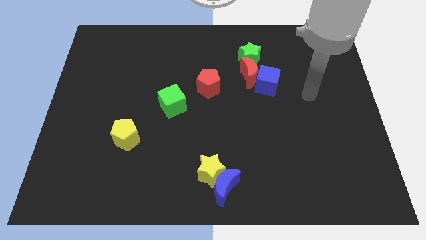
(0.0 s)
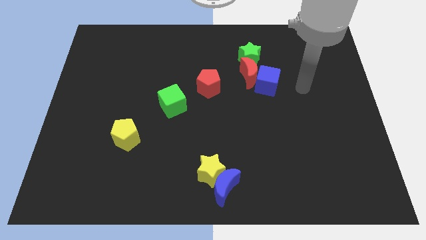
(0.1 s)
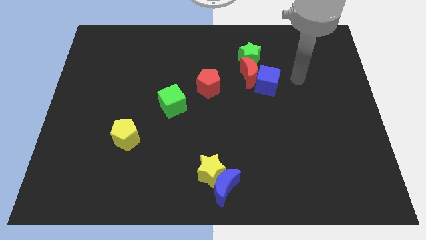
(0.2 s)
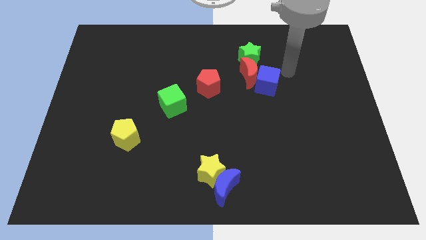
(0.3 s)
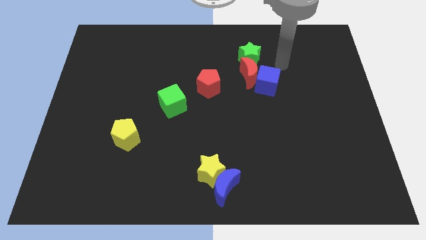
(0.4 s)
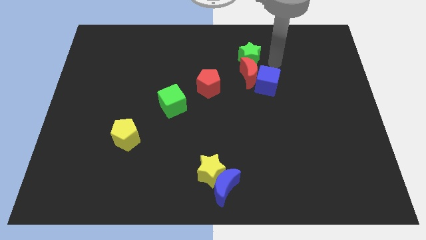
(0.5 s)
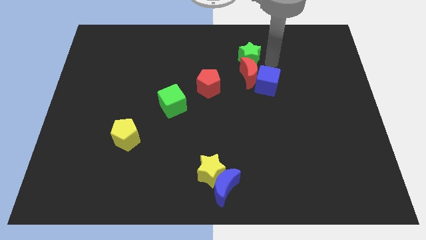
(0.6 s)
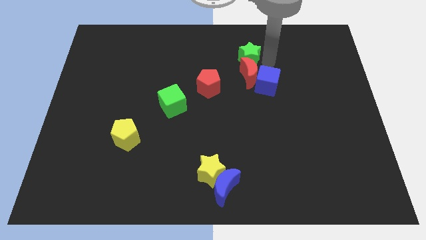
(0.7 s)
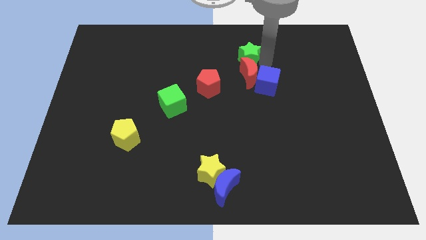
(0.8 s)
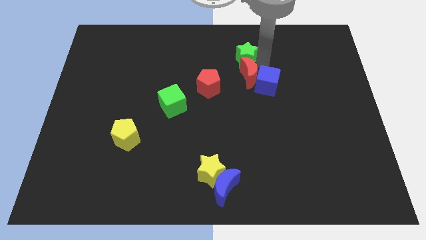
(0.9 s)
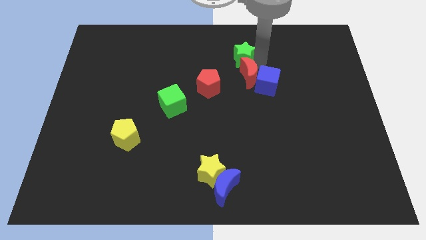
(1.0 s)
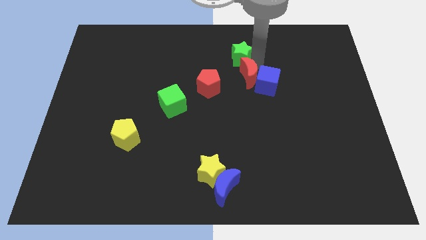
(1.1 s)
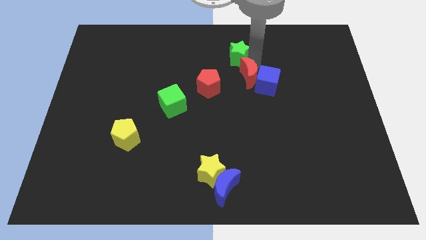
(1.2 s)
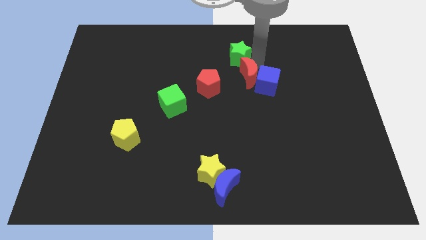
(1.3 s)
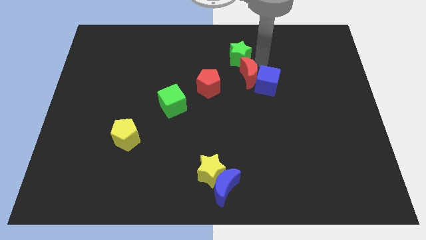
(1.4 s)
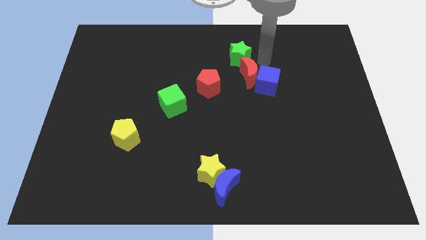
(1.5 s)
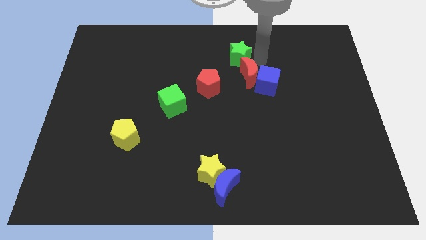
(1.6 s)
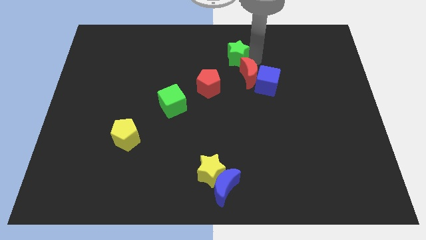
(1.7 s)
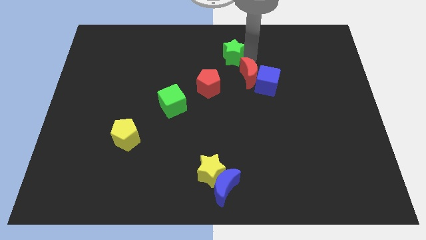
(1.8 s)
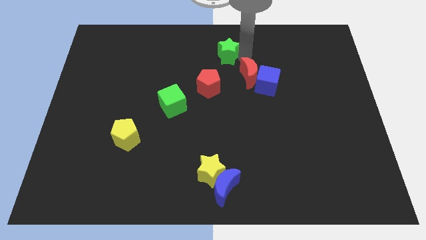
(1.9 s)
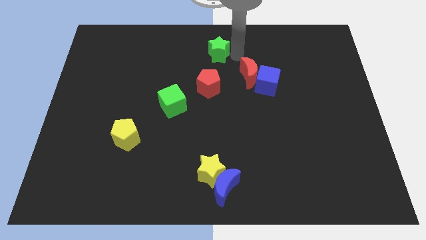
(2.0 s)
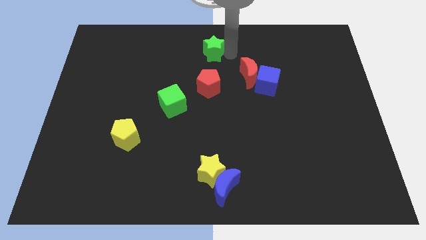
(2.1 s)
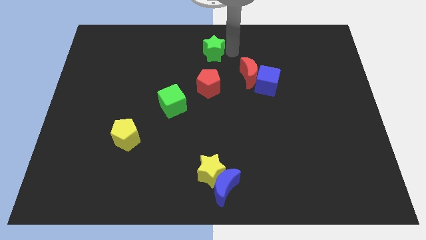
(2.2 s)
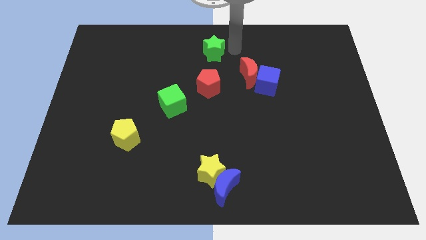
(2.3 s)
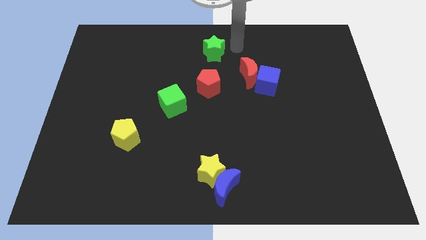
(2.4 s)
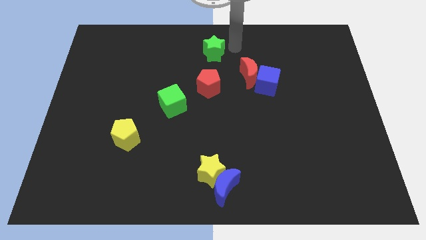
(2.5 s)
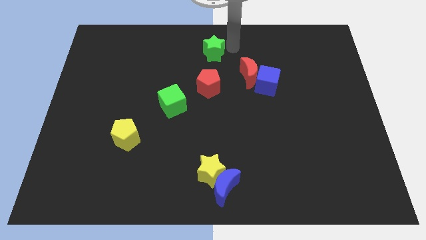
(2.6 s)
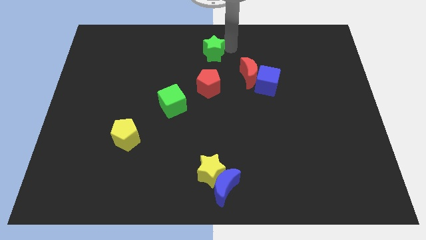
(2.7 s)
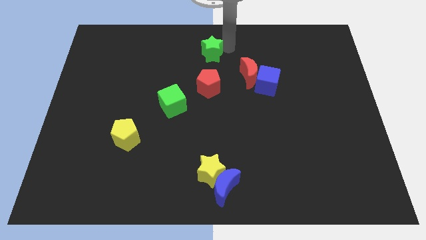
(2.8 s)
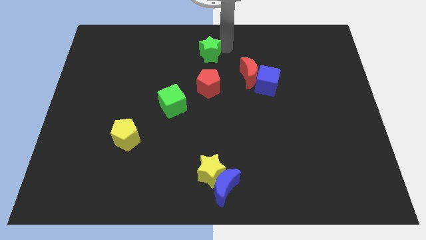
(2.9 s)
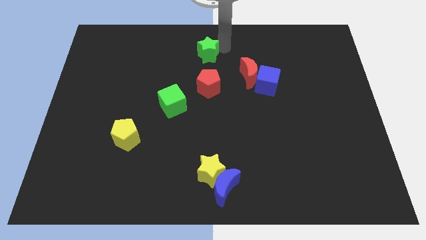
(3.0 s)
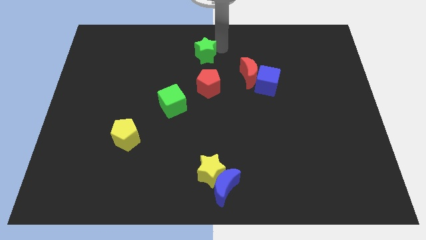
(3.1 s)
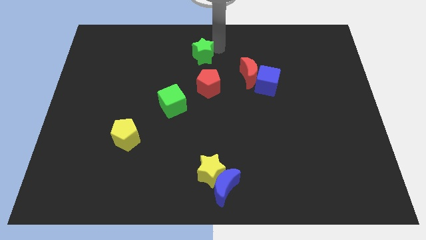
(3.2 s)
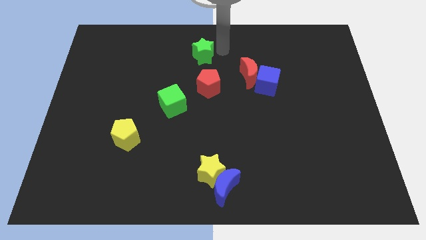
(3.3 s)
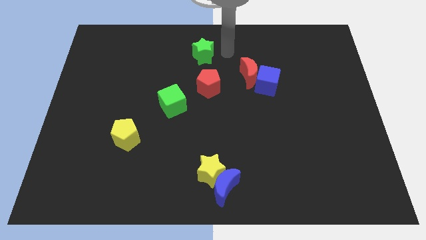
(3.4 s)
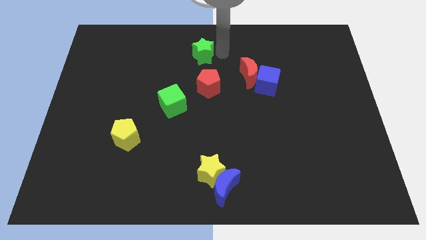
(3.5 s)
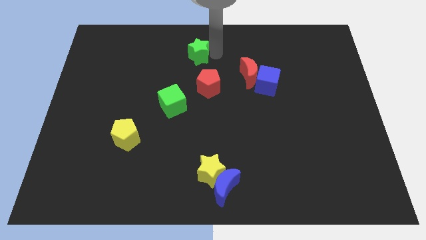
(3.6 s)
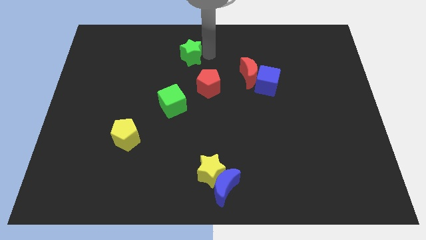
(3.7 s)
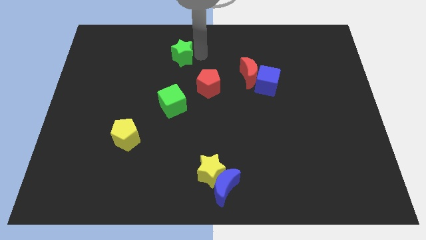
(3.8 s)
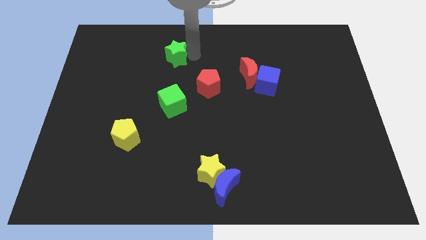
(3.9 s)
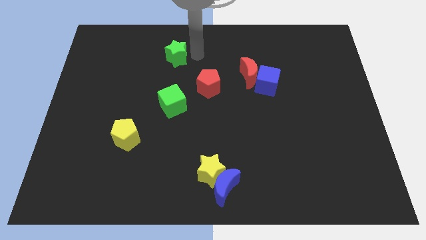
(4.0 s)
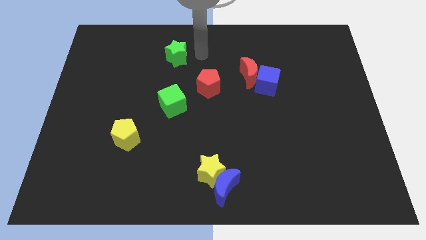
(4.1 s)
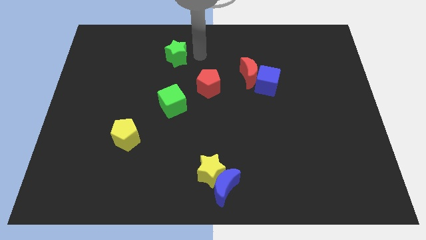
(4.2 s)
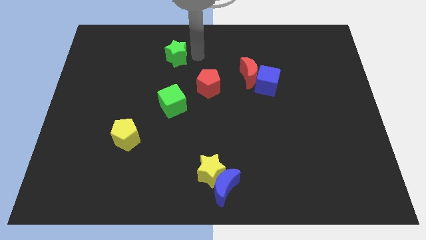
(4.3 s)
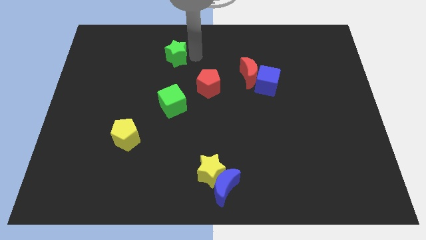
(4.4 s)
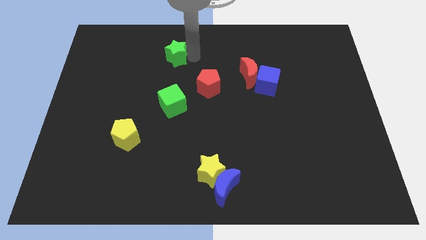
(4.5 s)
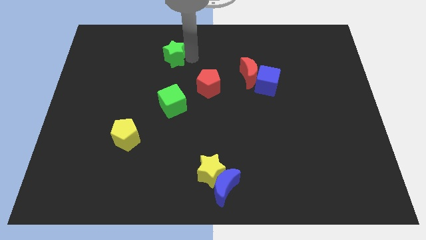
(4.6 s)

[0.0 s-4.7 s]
slide the green star to the left

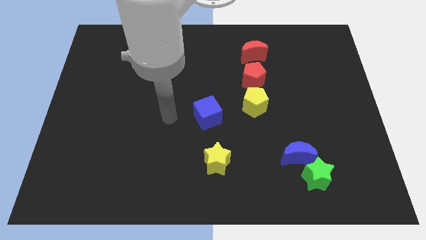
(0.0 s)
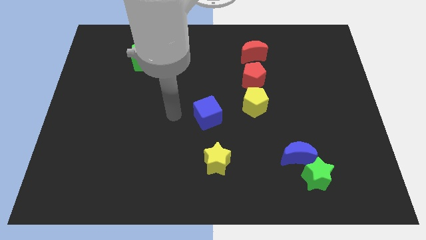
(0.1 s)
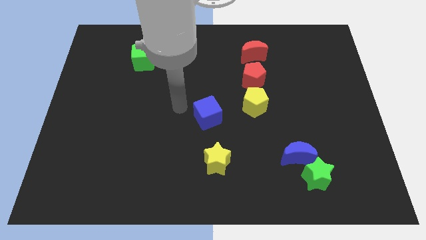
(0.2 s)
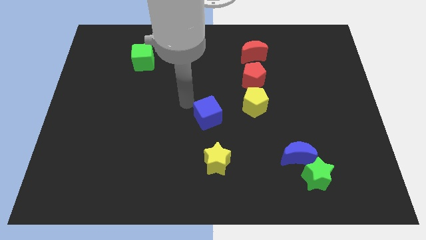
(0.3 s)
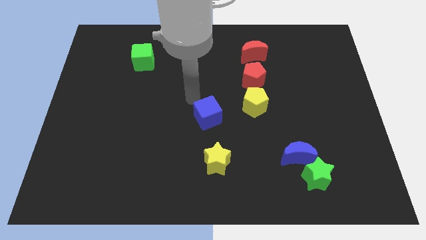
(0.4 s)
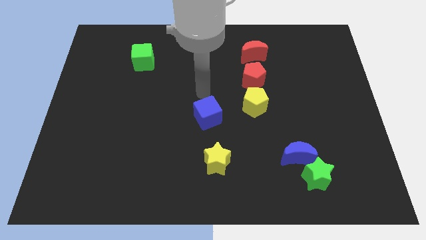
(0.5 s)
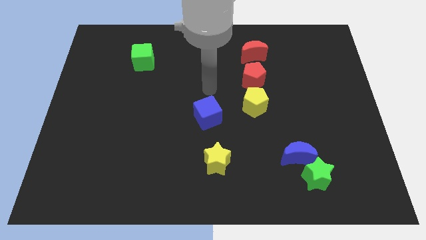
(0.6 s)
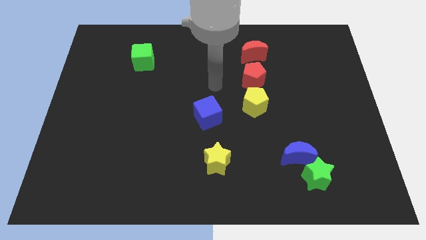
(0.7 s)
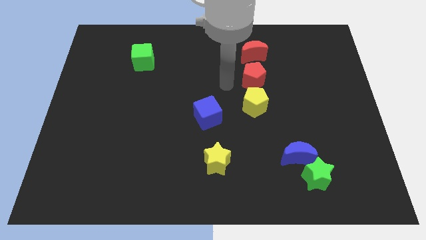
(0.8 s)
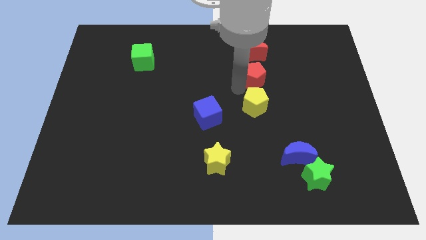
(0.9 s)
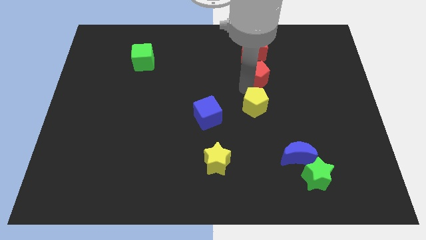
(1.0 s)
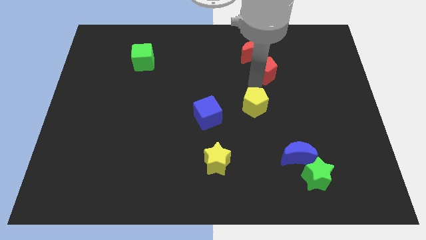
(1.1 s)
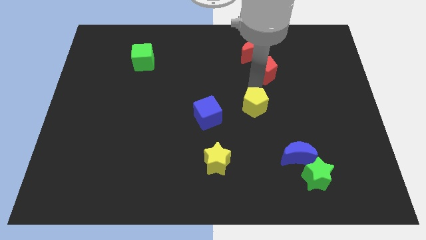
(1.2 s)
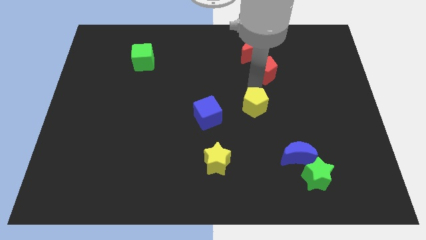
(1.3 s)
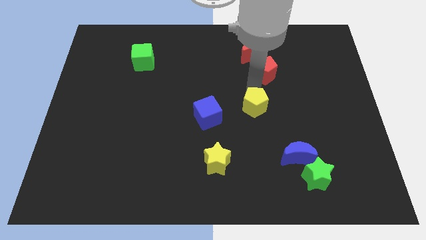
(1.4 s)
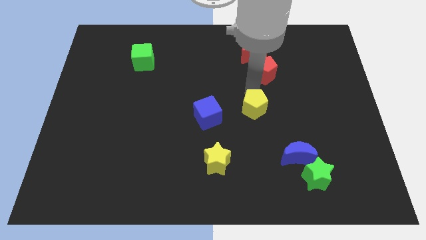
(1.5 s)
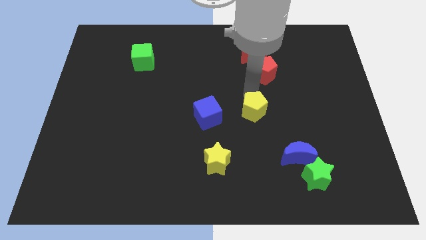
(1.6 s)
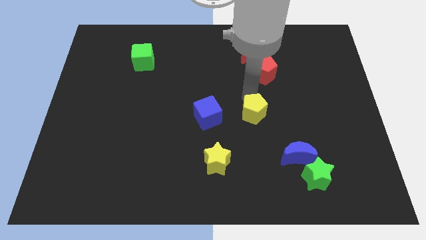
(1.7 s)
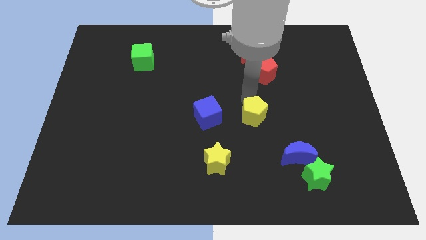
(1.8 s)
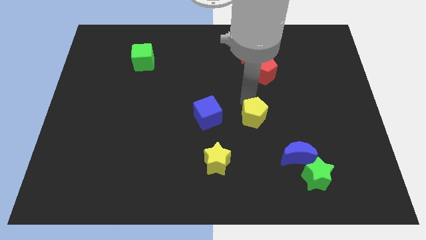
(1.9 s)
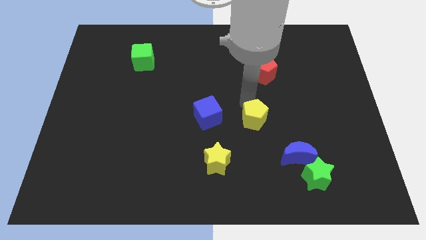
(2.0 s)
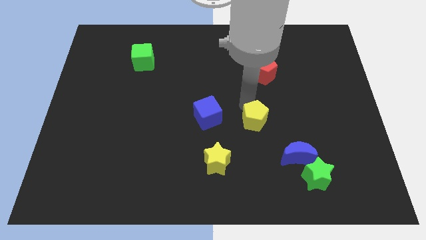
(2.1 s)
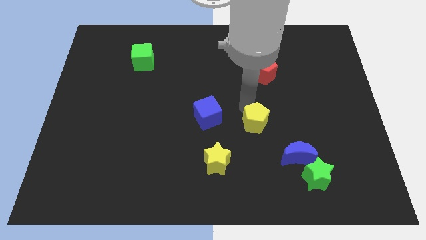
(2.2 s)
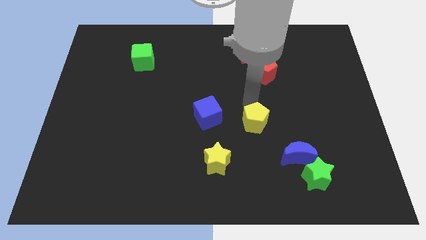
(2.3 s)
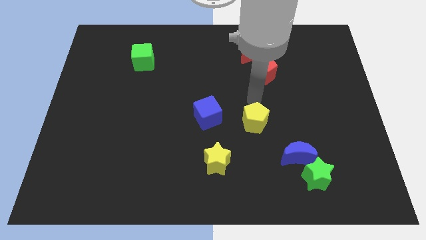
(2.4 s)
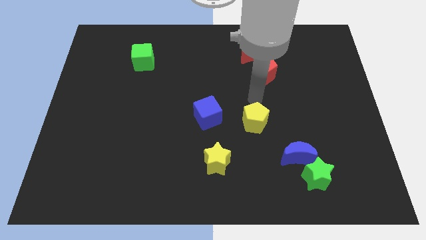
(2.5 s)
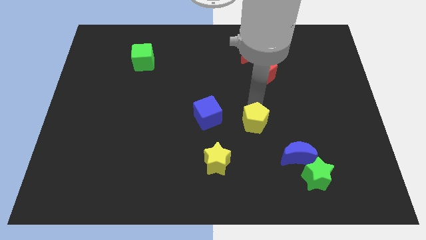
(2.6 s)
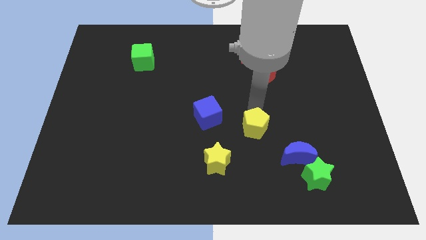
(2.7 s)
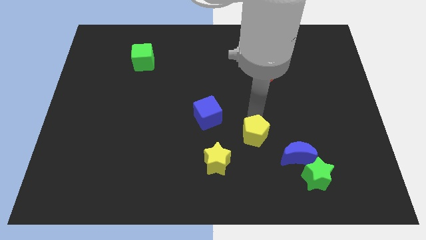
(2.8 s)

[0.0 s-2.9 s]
push the yellow pentagon a bit down
